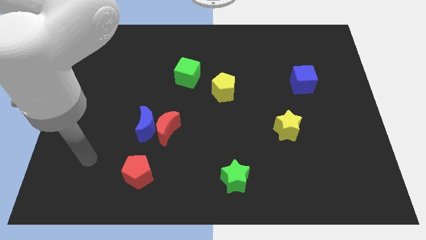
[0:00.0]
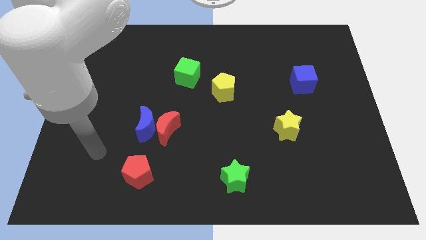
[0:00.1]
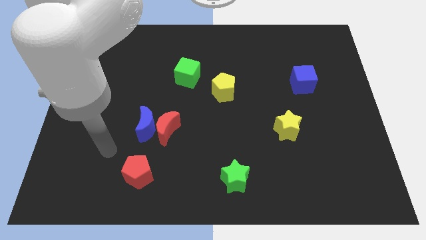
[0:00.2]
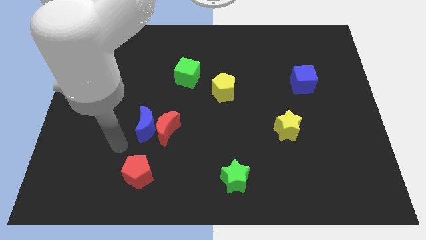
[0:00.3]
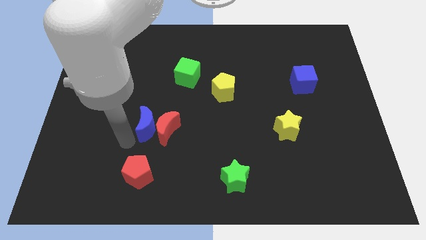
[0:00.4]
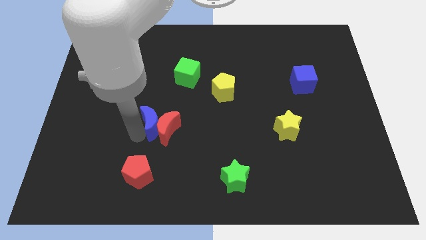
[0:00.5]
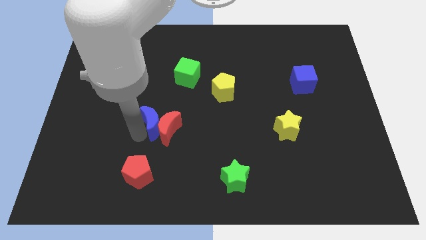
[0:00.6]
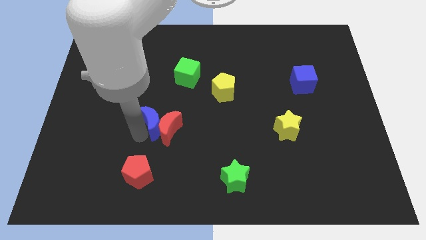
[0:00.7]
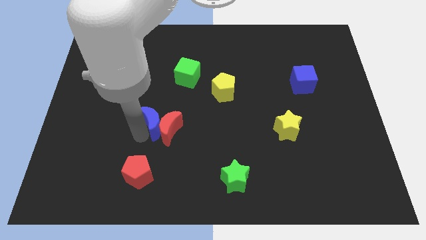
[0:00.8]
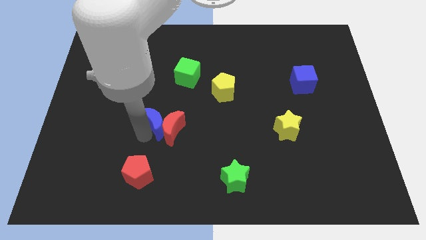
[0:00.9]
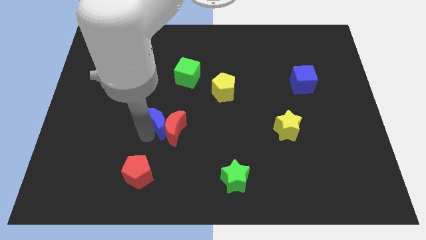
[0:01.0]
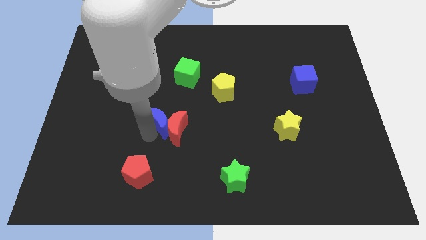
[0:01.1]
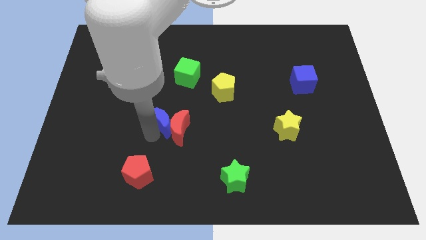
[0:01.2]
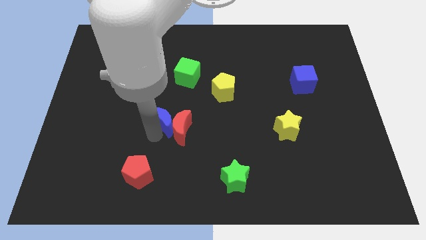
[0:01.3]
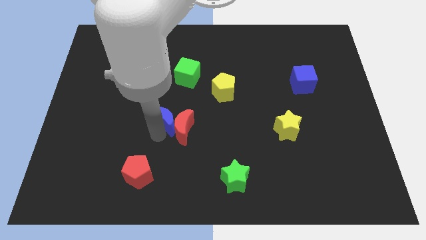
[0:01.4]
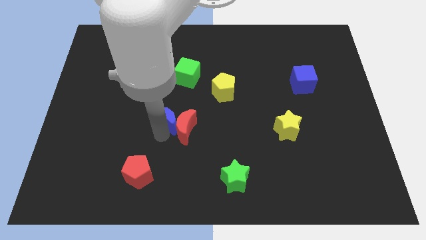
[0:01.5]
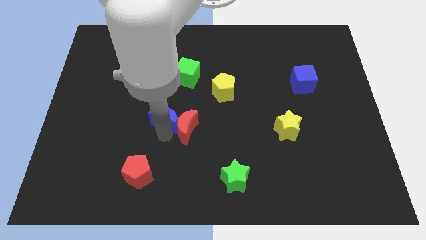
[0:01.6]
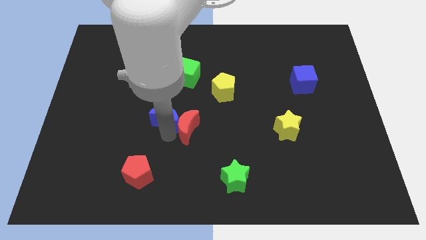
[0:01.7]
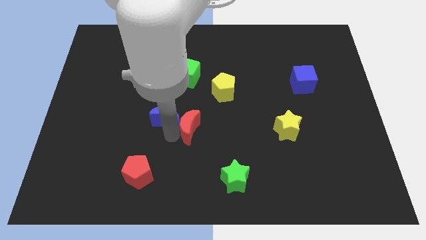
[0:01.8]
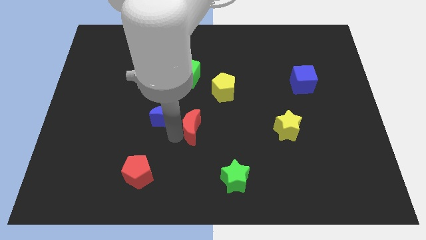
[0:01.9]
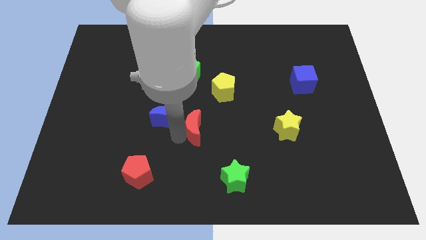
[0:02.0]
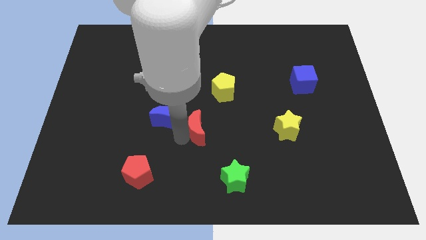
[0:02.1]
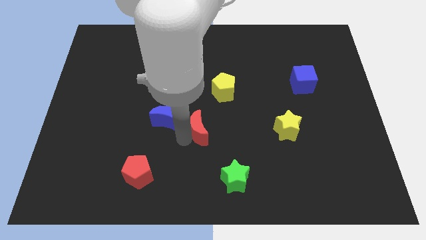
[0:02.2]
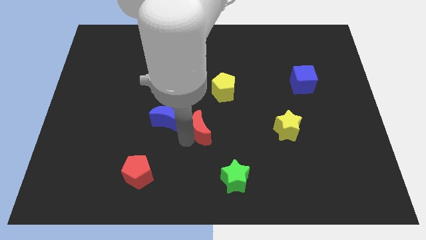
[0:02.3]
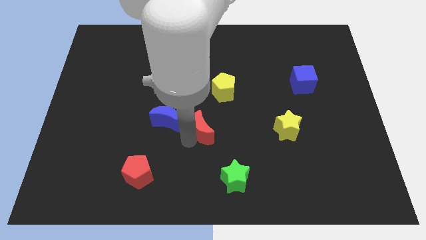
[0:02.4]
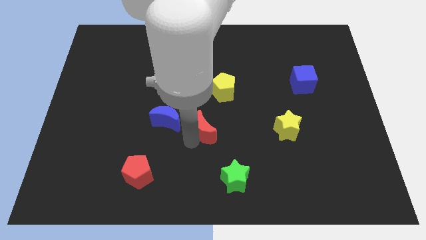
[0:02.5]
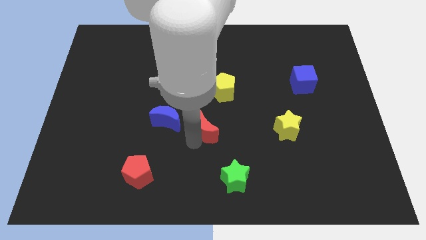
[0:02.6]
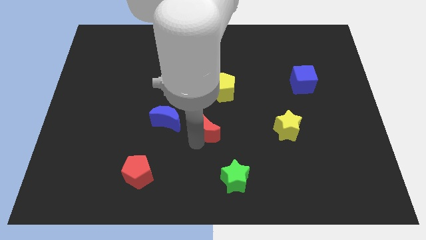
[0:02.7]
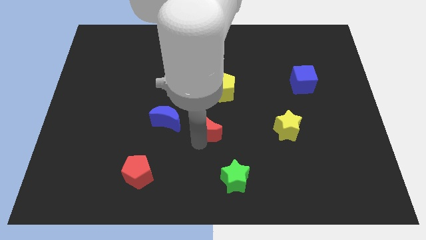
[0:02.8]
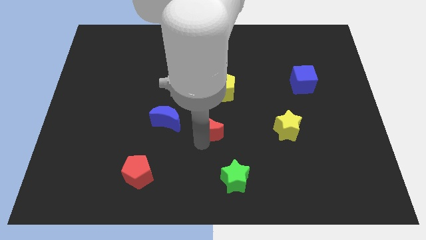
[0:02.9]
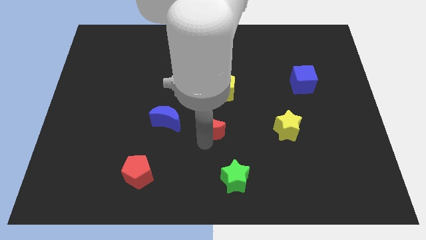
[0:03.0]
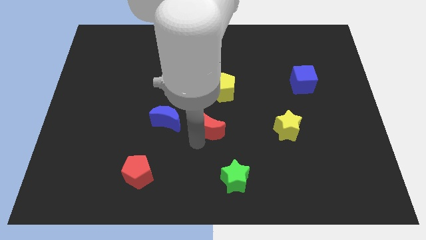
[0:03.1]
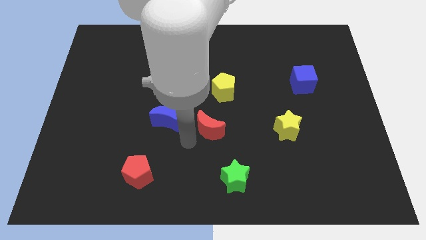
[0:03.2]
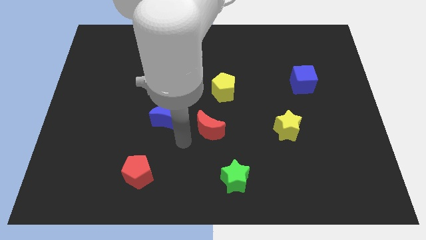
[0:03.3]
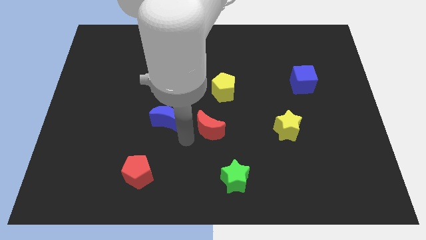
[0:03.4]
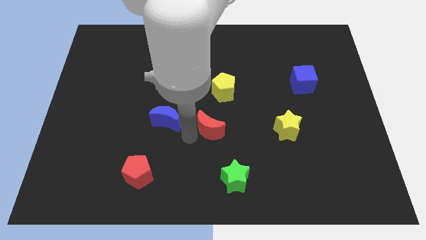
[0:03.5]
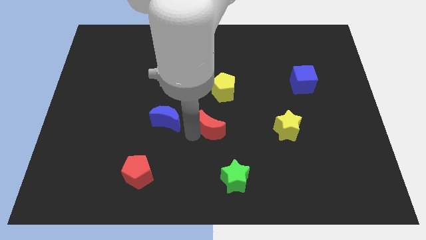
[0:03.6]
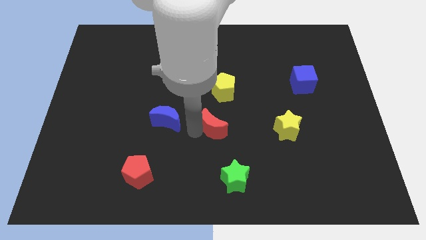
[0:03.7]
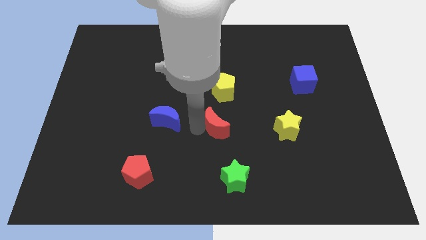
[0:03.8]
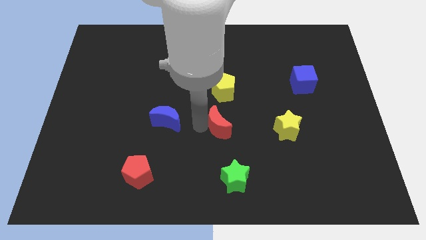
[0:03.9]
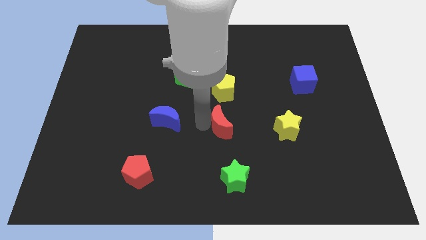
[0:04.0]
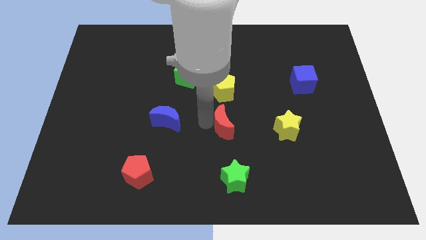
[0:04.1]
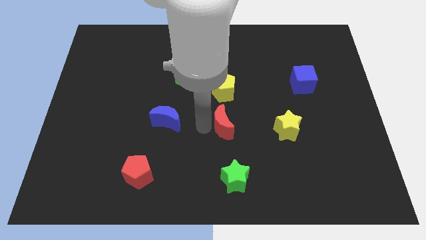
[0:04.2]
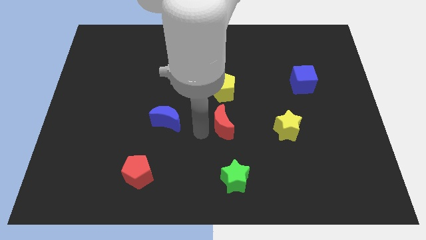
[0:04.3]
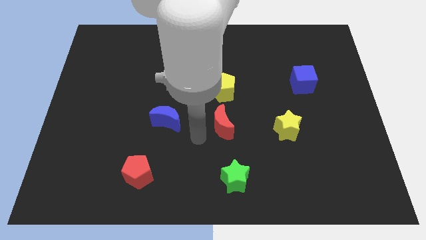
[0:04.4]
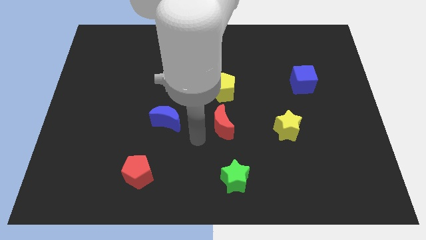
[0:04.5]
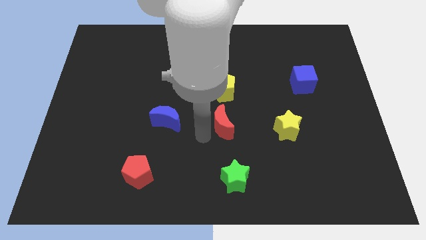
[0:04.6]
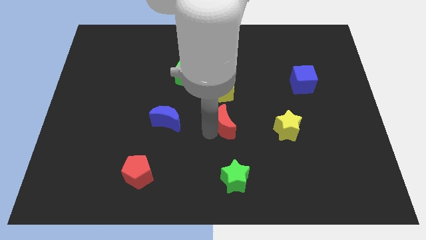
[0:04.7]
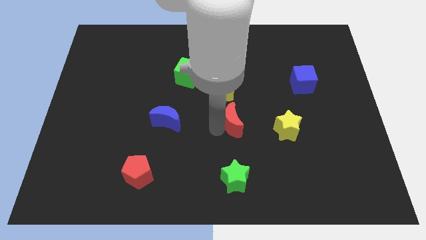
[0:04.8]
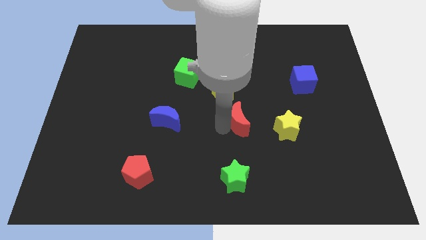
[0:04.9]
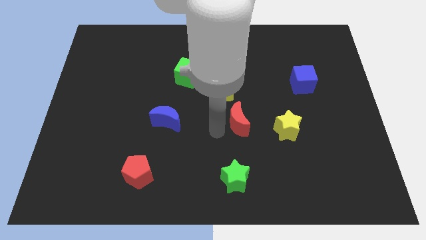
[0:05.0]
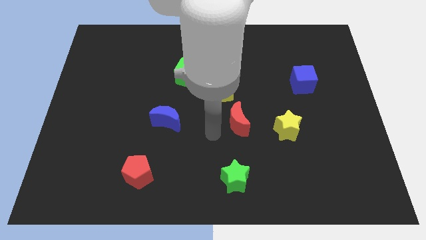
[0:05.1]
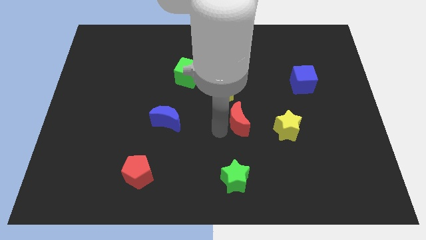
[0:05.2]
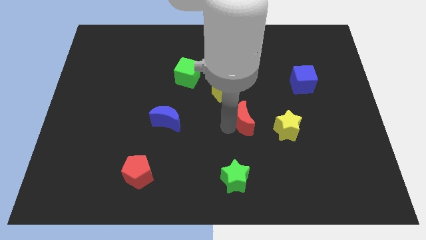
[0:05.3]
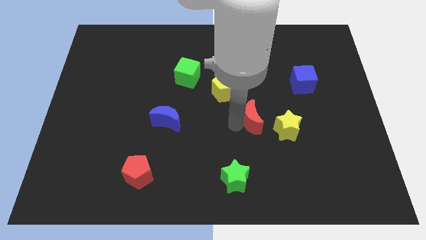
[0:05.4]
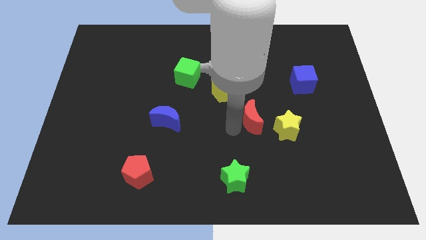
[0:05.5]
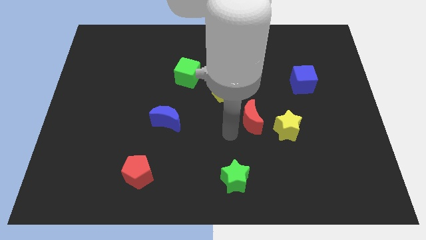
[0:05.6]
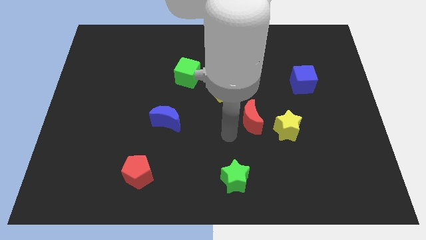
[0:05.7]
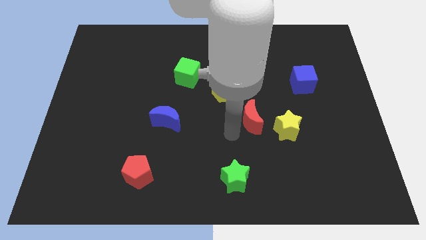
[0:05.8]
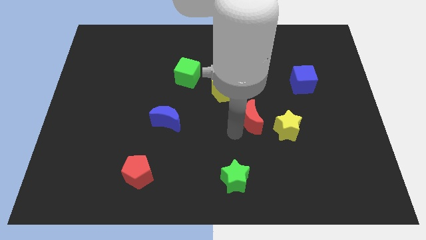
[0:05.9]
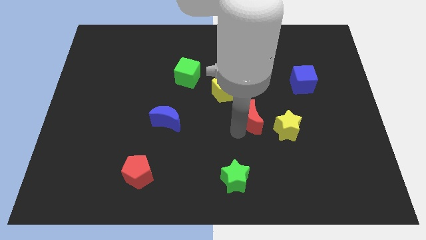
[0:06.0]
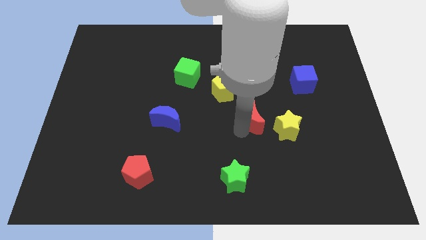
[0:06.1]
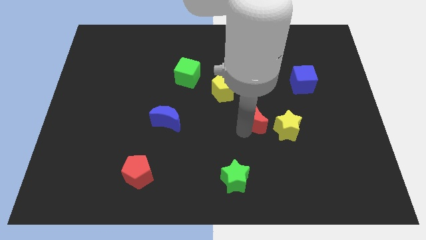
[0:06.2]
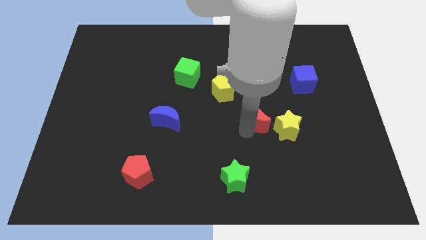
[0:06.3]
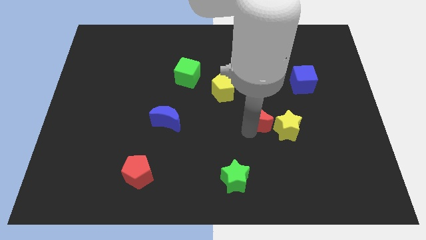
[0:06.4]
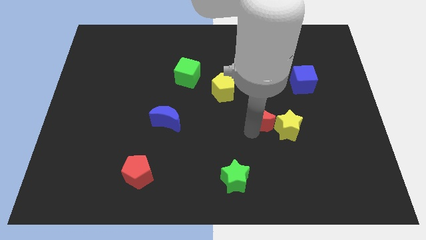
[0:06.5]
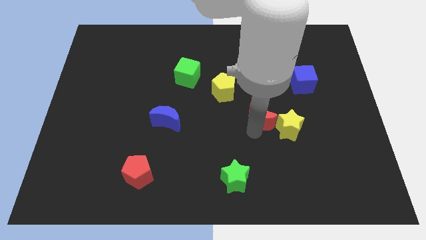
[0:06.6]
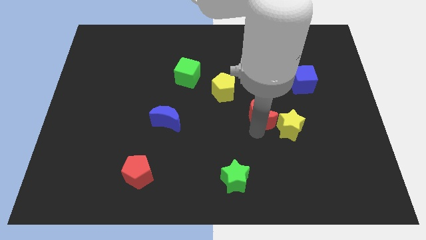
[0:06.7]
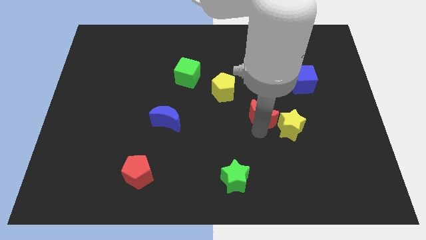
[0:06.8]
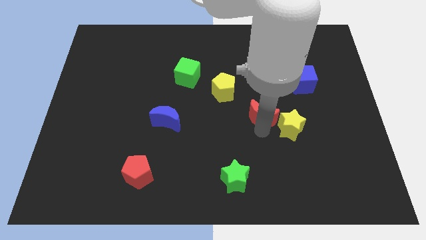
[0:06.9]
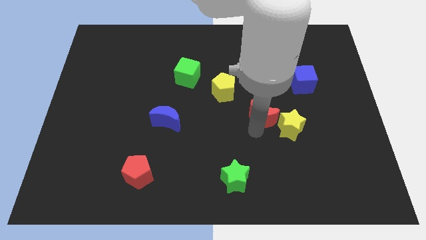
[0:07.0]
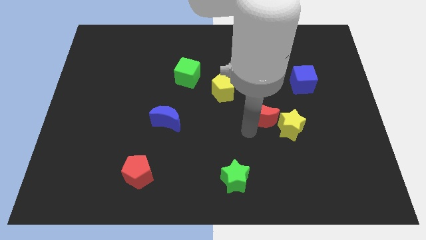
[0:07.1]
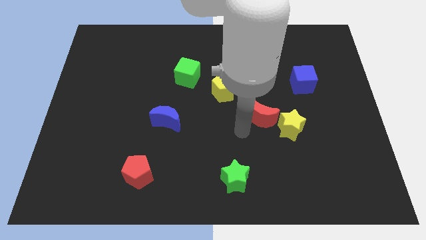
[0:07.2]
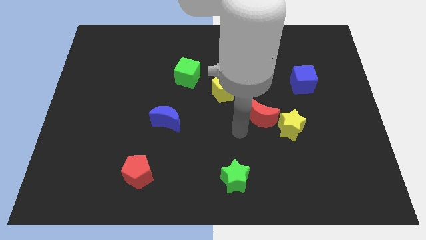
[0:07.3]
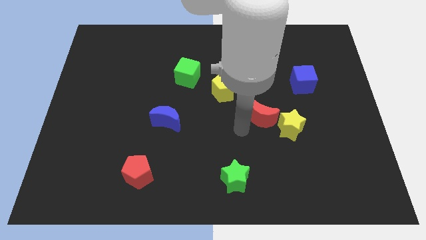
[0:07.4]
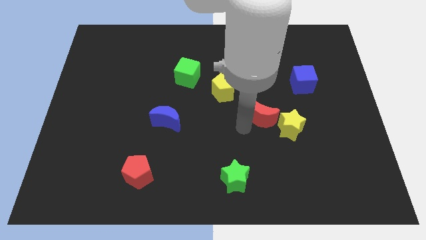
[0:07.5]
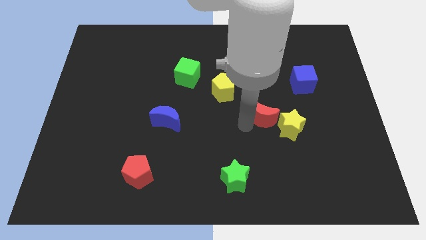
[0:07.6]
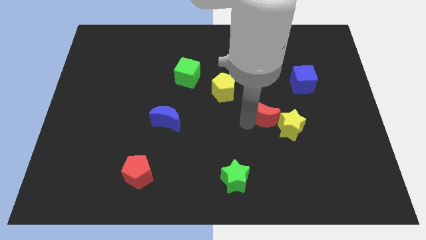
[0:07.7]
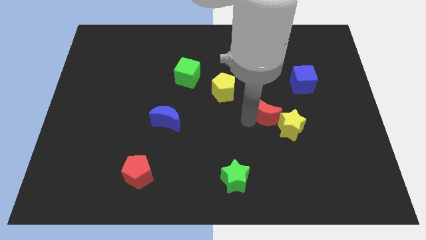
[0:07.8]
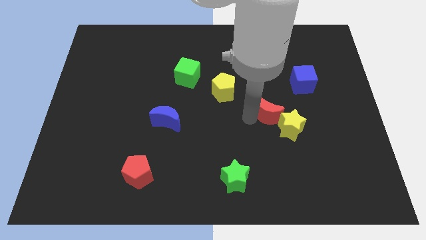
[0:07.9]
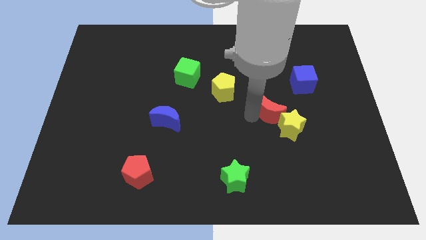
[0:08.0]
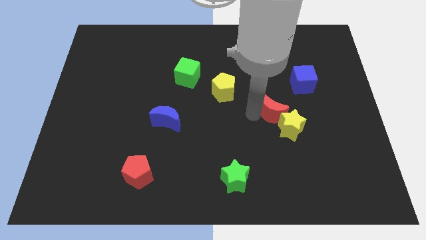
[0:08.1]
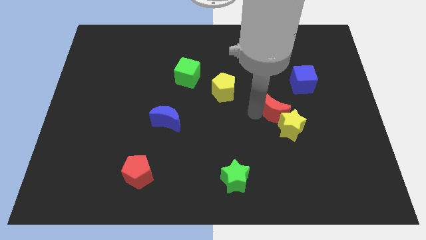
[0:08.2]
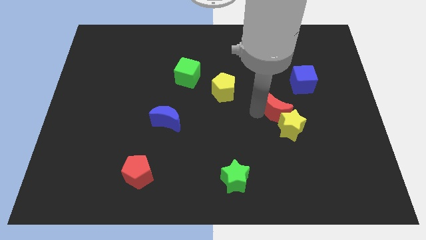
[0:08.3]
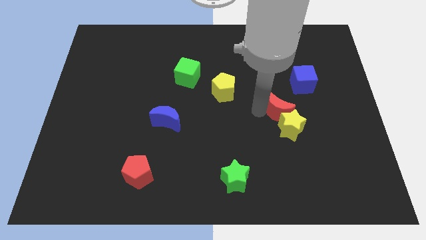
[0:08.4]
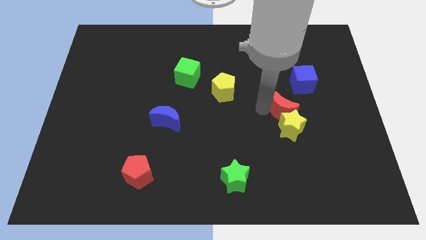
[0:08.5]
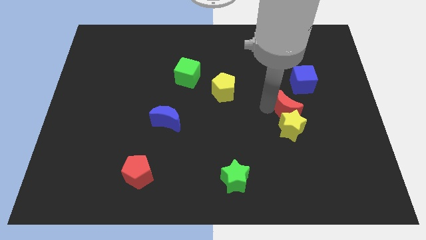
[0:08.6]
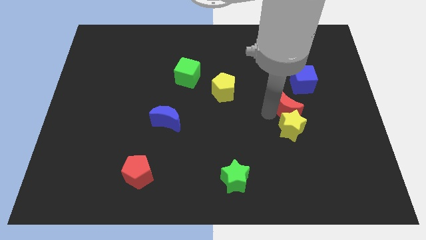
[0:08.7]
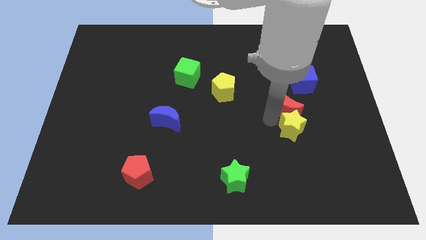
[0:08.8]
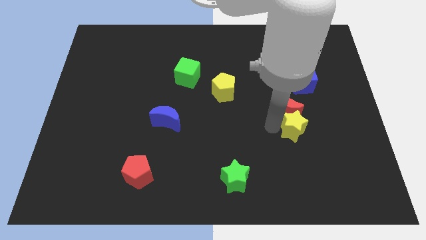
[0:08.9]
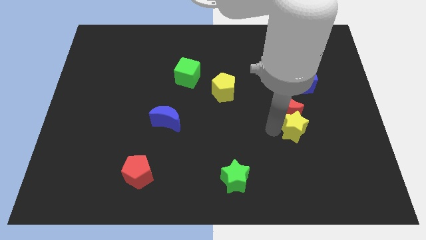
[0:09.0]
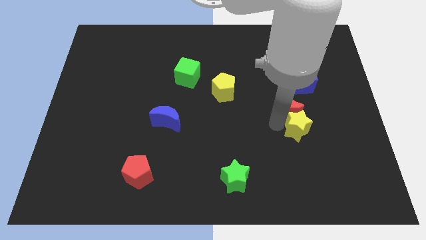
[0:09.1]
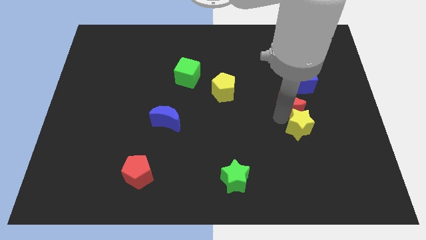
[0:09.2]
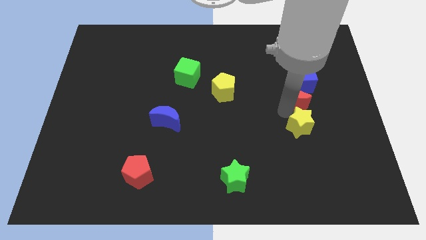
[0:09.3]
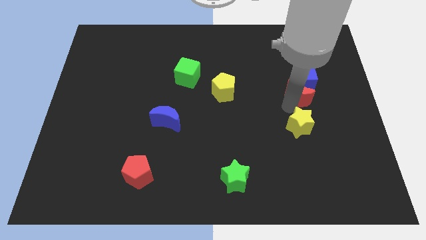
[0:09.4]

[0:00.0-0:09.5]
push the red moon next to the blue cube
